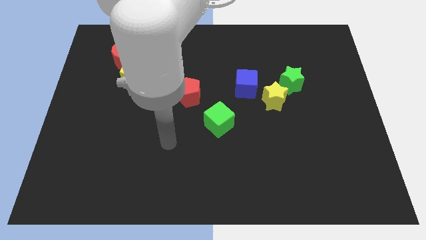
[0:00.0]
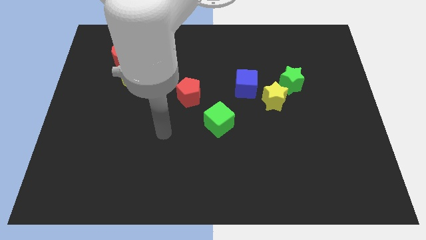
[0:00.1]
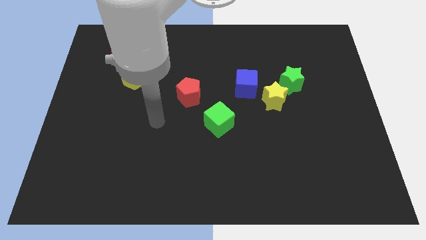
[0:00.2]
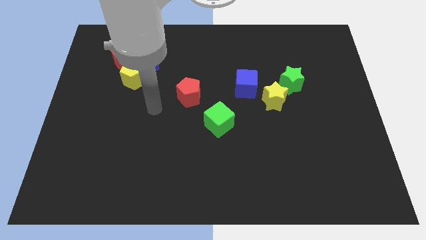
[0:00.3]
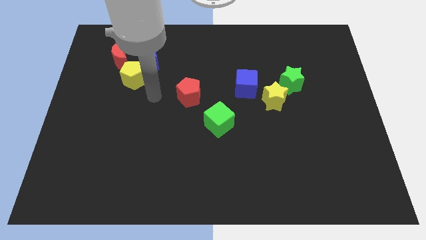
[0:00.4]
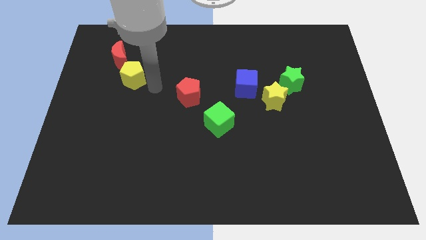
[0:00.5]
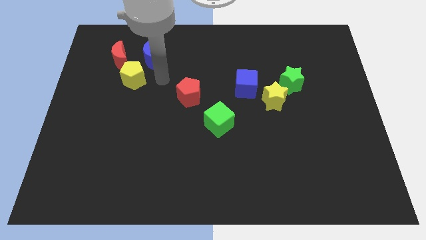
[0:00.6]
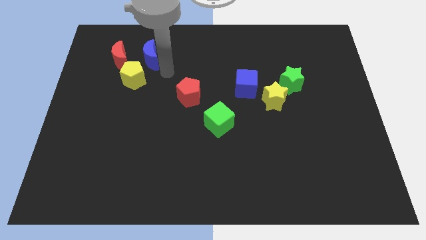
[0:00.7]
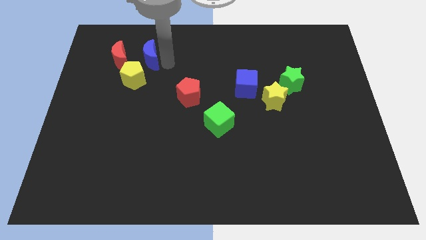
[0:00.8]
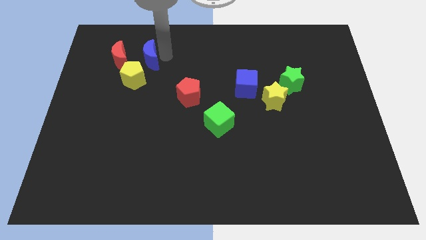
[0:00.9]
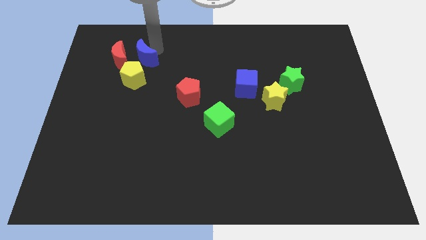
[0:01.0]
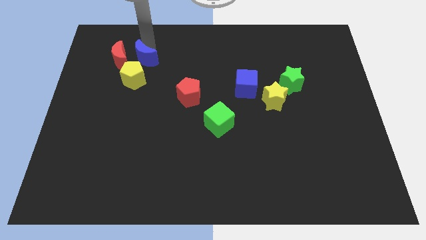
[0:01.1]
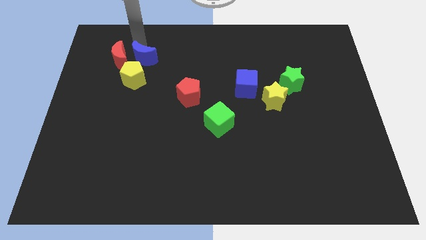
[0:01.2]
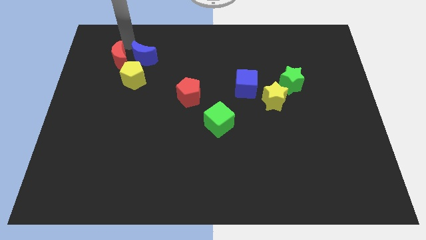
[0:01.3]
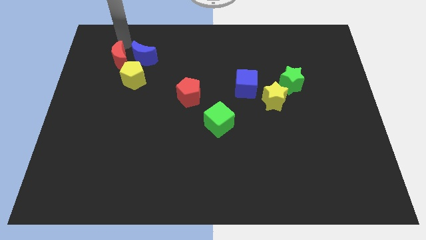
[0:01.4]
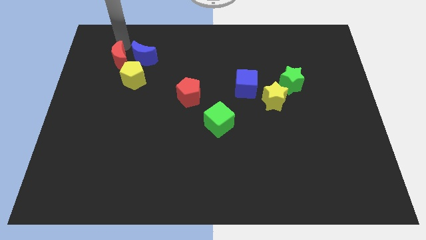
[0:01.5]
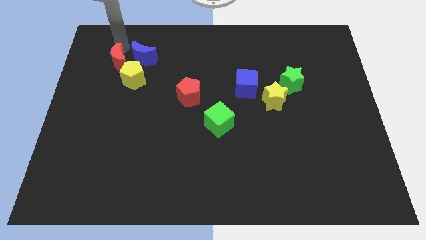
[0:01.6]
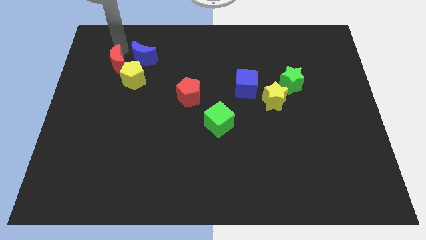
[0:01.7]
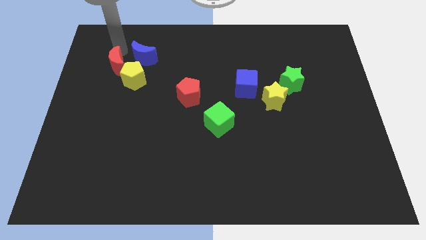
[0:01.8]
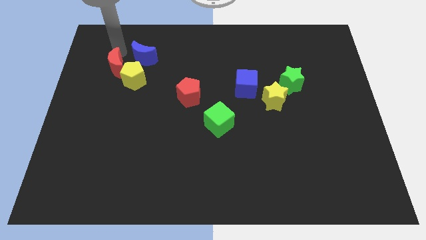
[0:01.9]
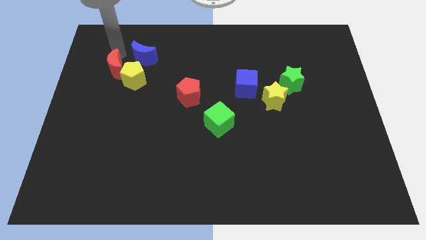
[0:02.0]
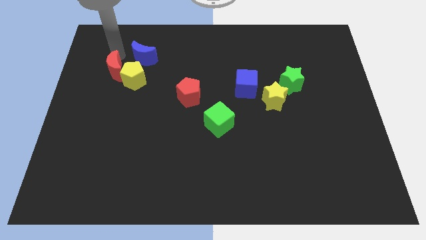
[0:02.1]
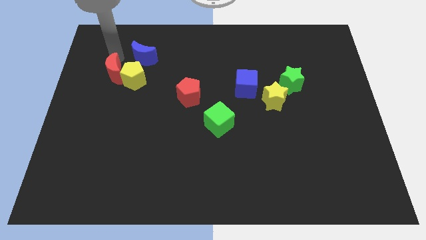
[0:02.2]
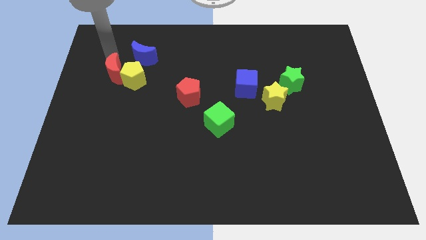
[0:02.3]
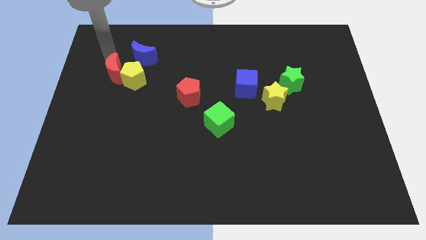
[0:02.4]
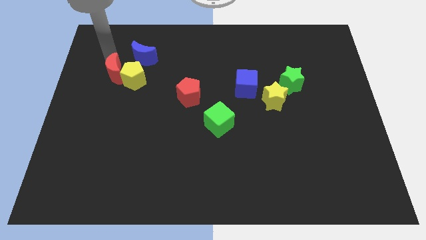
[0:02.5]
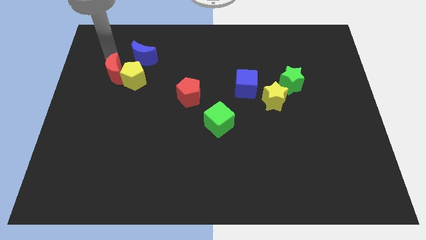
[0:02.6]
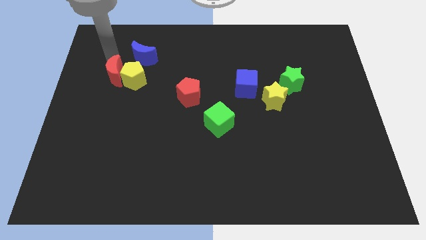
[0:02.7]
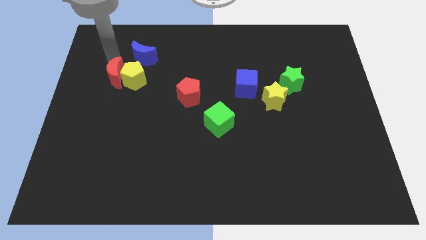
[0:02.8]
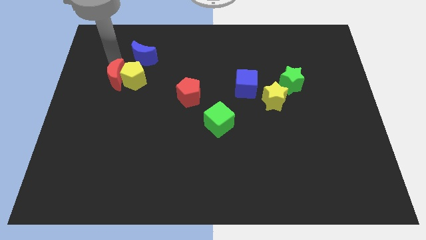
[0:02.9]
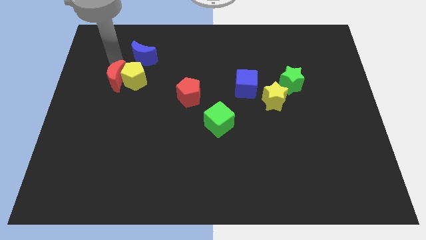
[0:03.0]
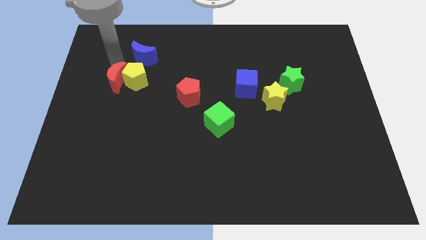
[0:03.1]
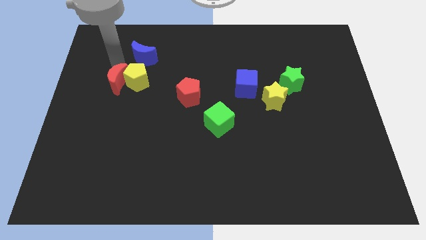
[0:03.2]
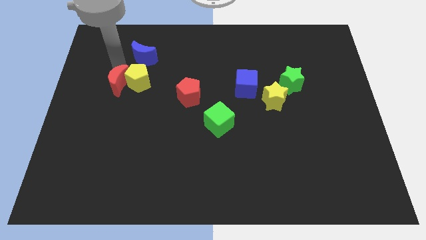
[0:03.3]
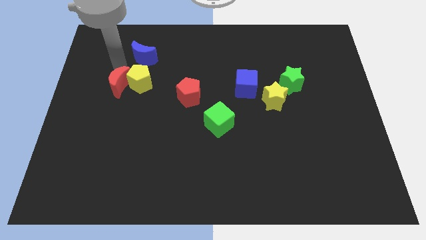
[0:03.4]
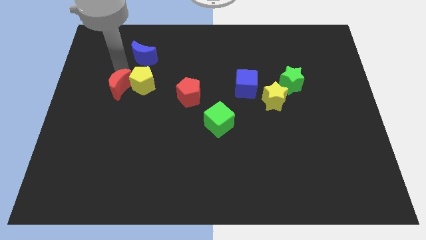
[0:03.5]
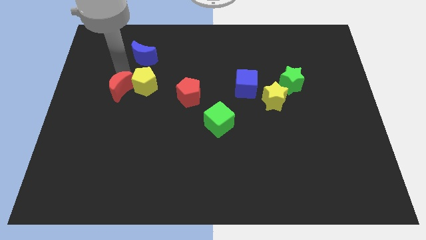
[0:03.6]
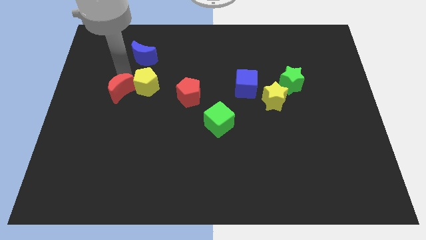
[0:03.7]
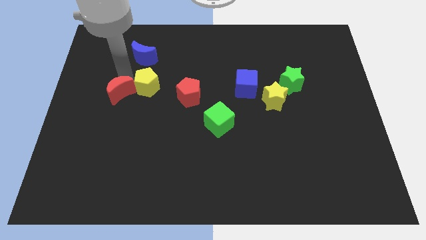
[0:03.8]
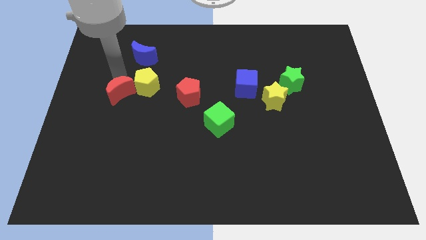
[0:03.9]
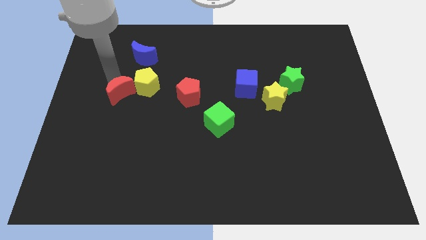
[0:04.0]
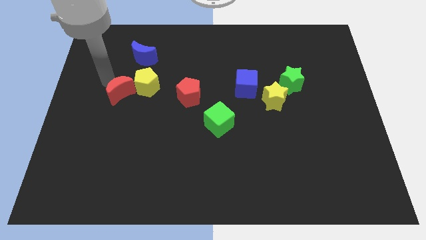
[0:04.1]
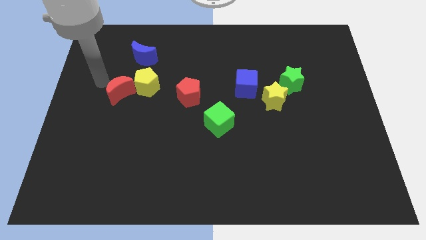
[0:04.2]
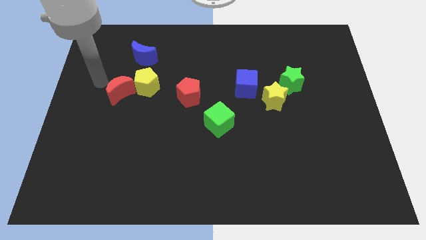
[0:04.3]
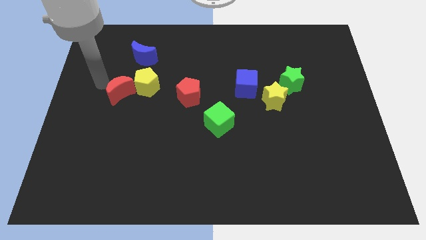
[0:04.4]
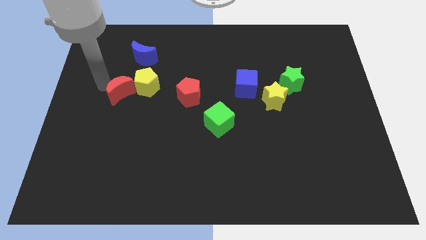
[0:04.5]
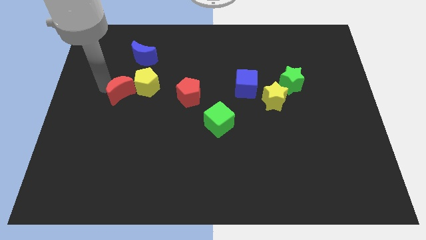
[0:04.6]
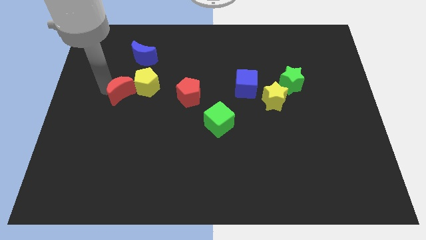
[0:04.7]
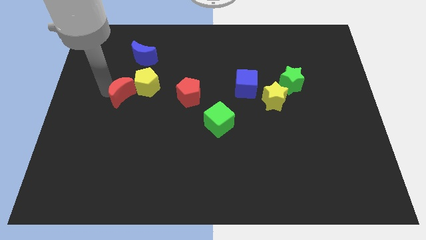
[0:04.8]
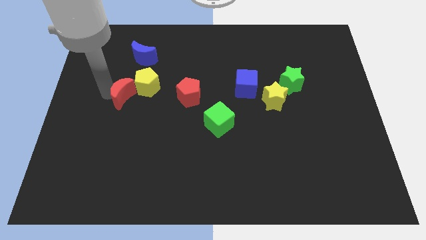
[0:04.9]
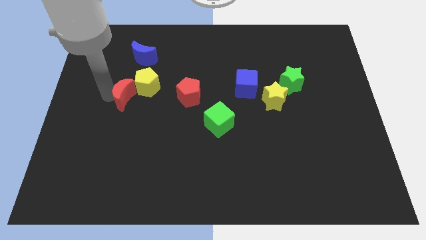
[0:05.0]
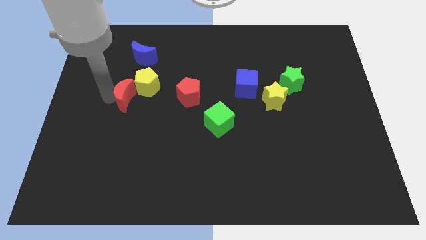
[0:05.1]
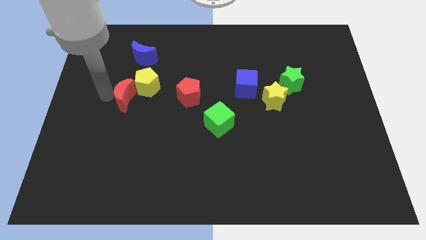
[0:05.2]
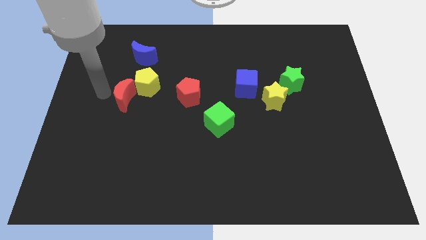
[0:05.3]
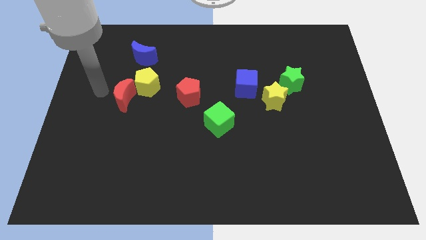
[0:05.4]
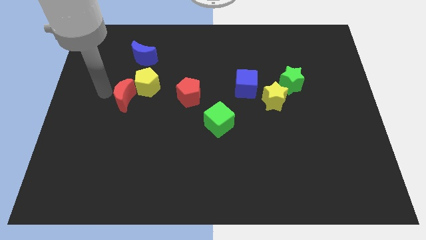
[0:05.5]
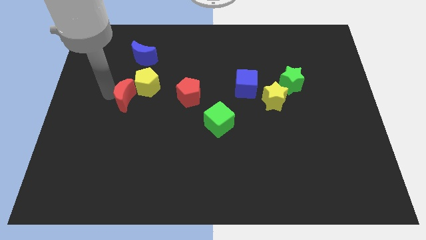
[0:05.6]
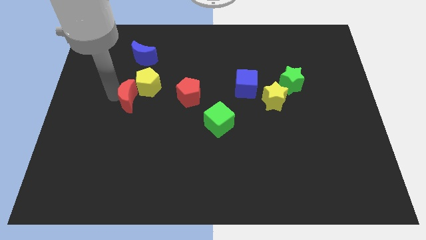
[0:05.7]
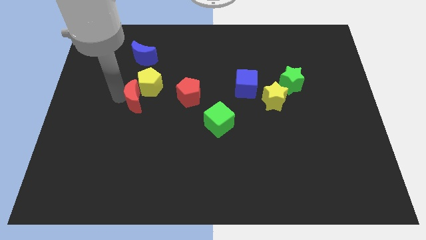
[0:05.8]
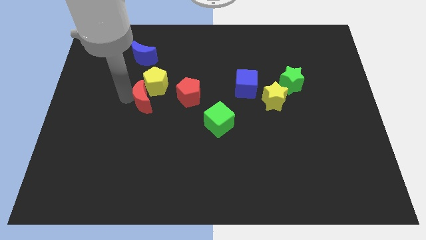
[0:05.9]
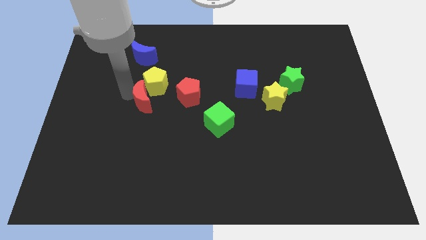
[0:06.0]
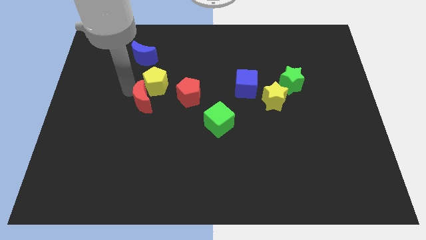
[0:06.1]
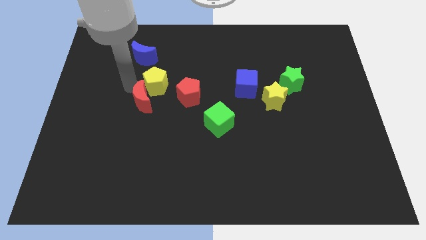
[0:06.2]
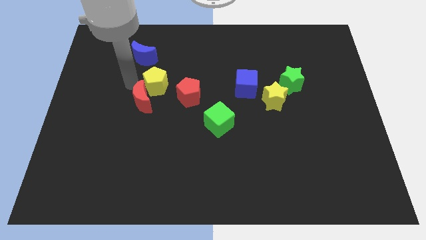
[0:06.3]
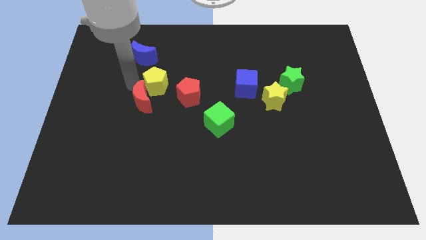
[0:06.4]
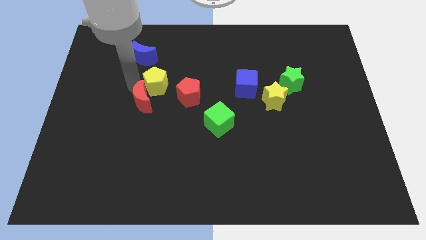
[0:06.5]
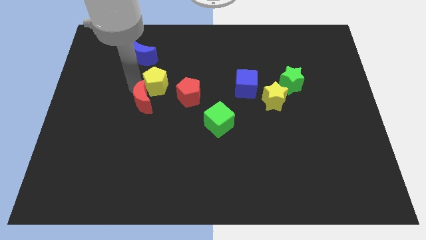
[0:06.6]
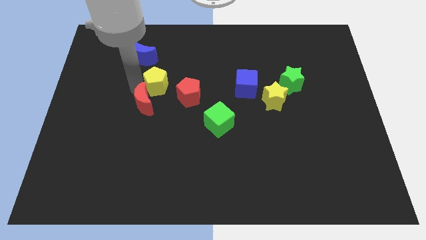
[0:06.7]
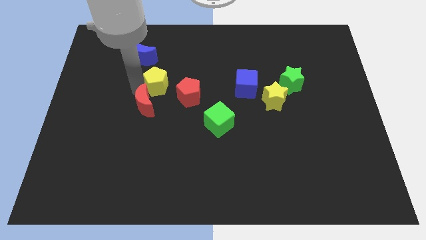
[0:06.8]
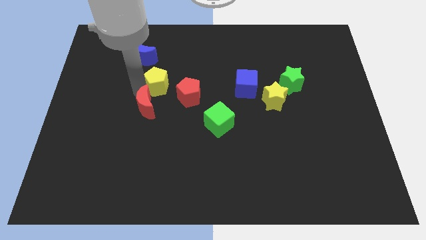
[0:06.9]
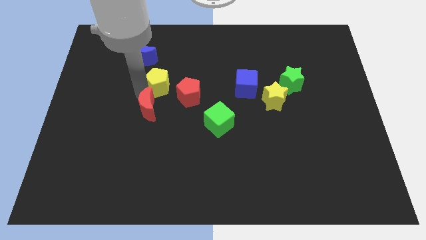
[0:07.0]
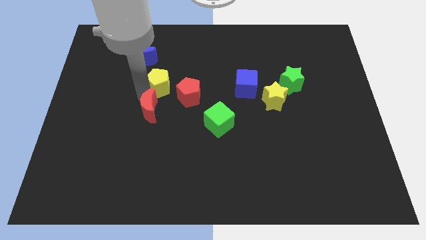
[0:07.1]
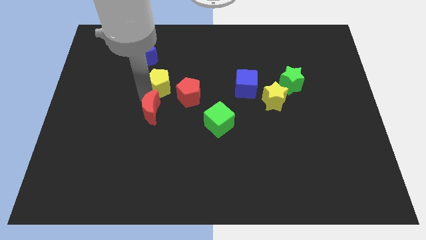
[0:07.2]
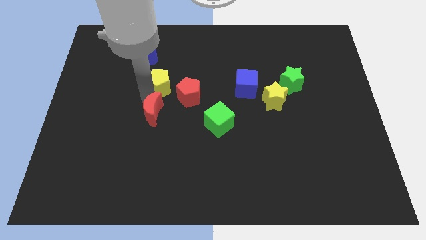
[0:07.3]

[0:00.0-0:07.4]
push the red moon to the left of the green cube
